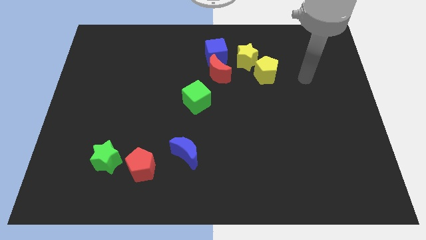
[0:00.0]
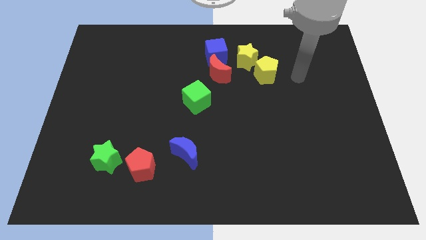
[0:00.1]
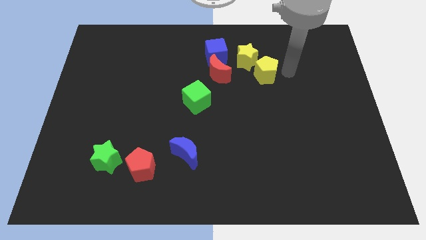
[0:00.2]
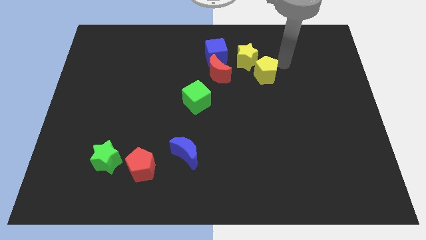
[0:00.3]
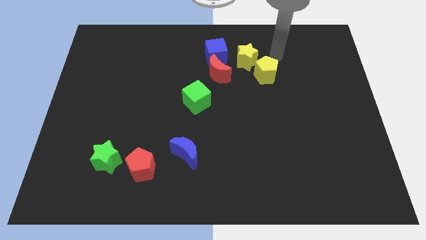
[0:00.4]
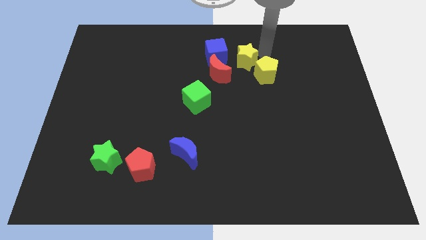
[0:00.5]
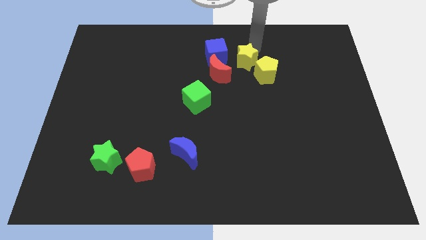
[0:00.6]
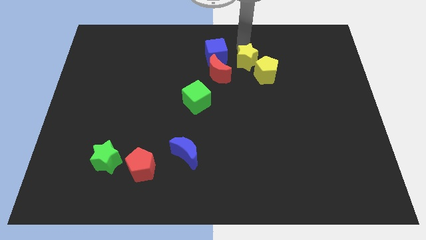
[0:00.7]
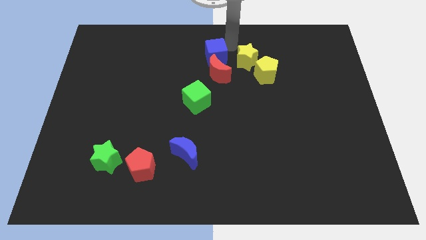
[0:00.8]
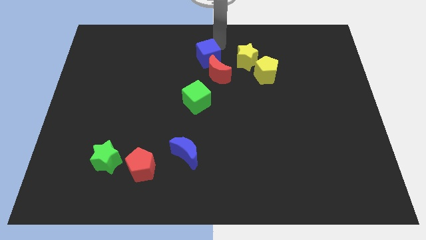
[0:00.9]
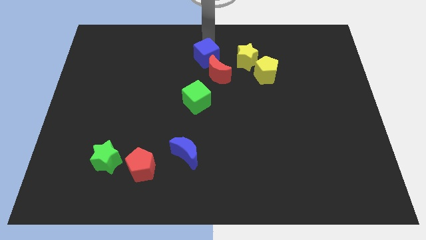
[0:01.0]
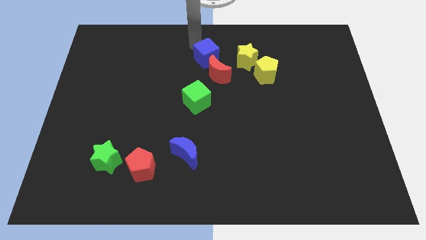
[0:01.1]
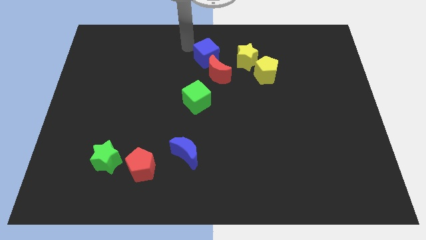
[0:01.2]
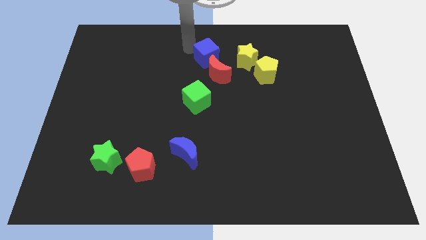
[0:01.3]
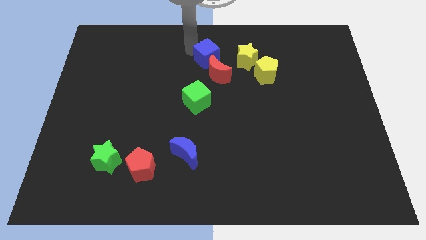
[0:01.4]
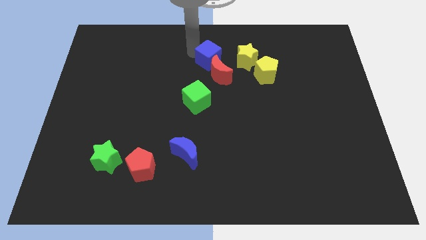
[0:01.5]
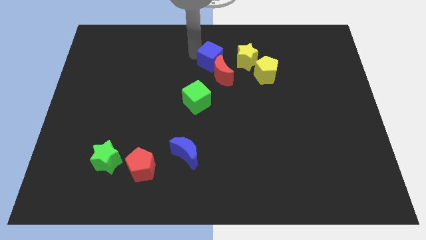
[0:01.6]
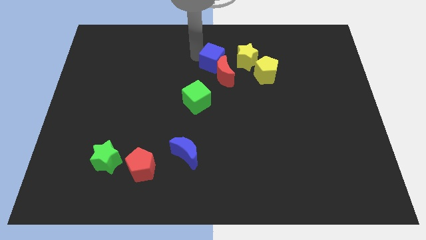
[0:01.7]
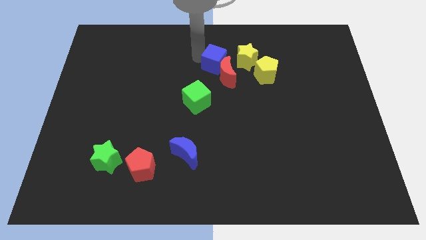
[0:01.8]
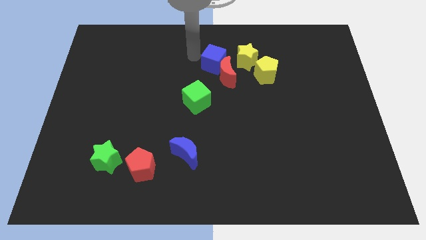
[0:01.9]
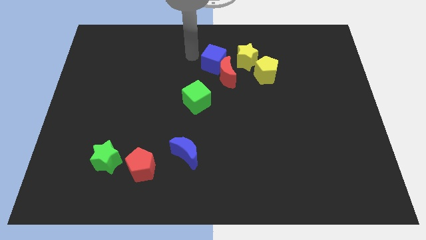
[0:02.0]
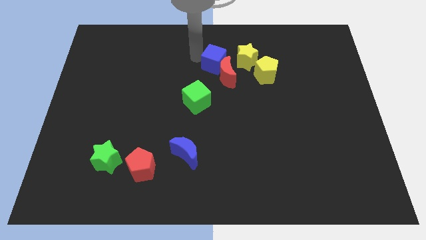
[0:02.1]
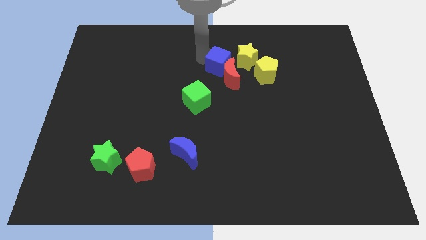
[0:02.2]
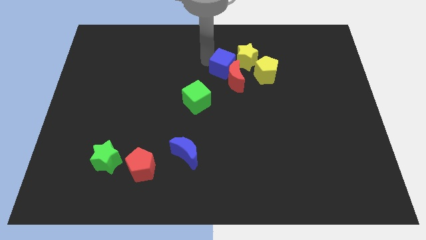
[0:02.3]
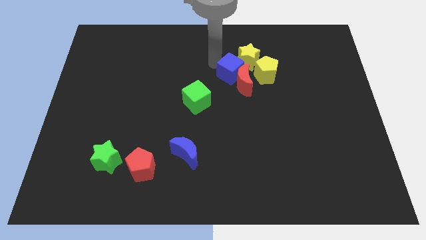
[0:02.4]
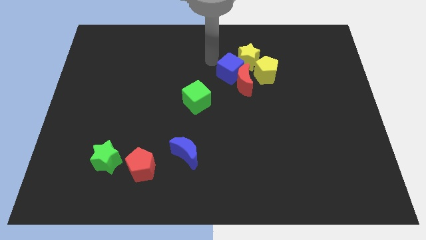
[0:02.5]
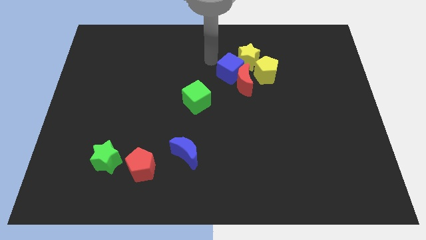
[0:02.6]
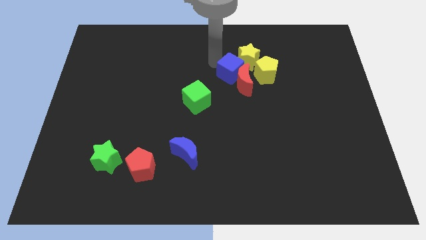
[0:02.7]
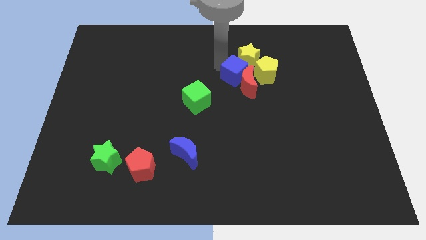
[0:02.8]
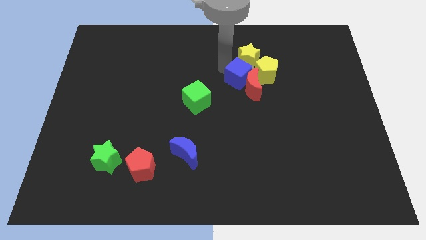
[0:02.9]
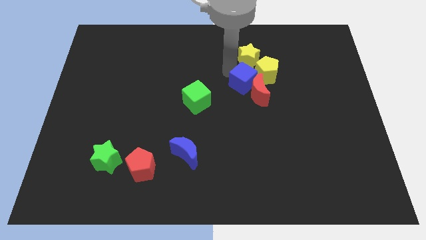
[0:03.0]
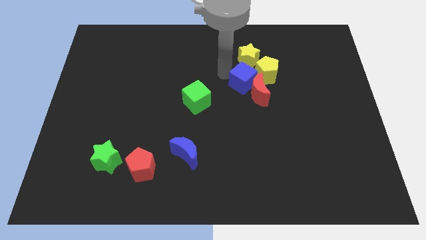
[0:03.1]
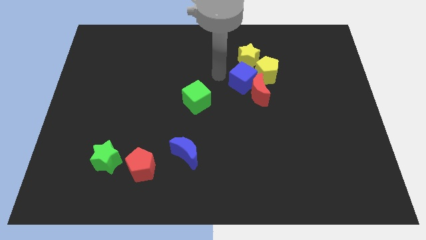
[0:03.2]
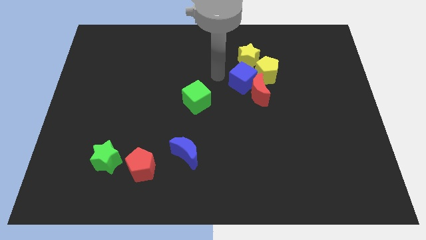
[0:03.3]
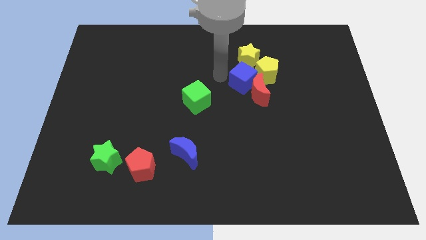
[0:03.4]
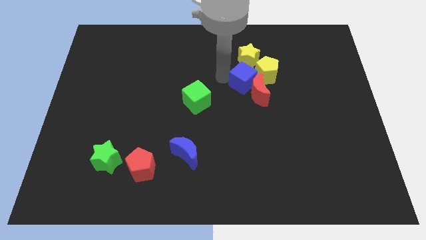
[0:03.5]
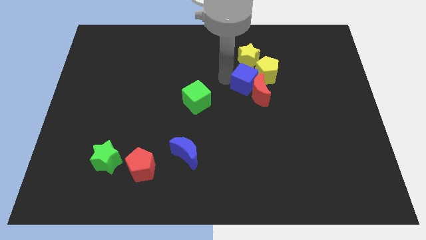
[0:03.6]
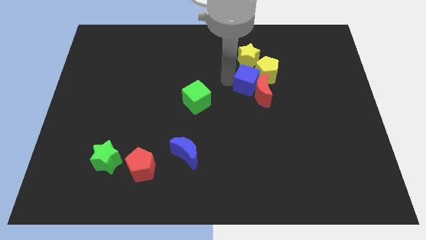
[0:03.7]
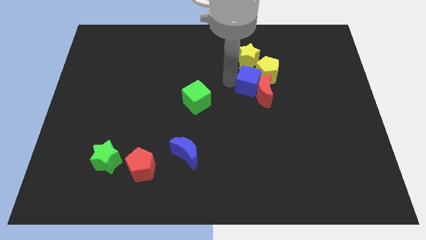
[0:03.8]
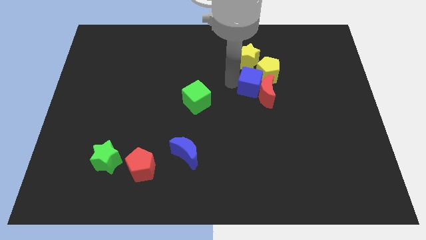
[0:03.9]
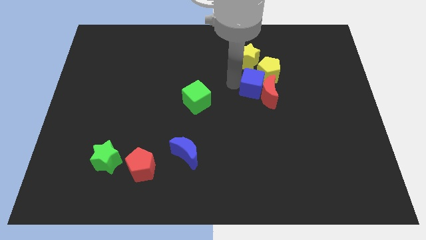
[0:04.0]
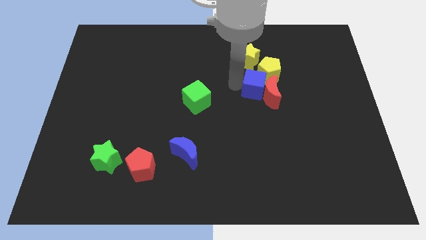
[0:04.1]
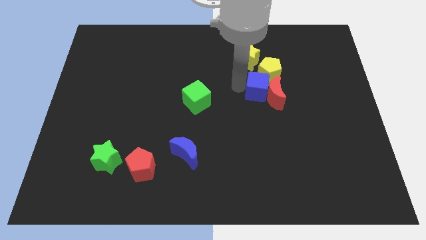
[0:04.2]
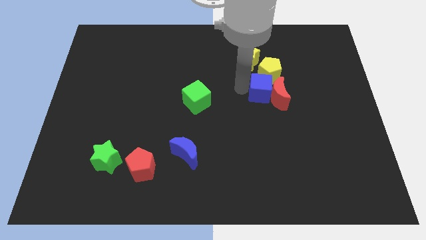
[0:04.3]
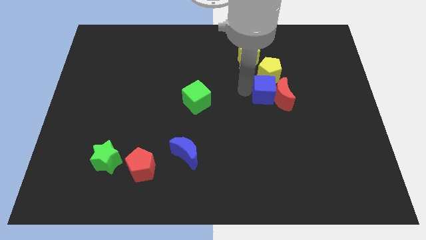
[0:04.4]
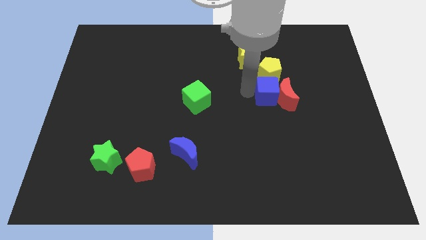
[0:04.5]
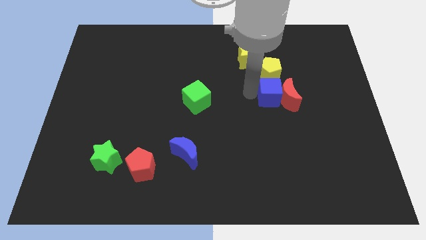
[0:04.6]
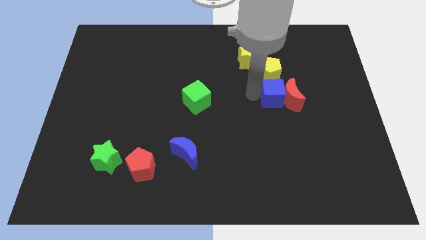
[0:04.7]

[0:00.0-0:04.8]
move the blue cube diagonally down and to the right of the yellow pentagon

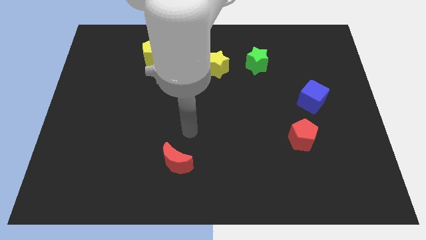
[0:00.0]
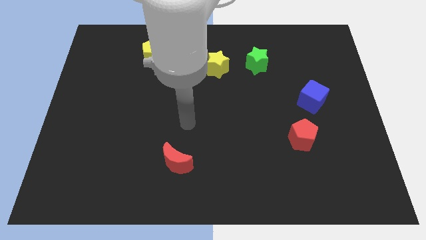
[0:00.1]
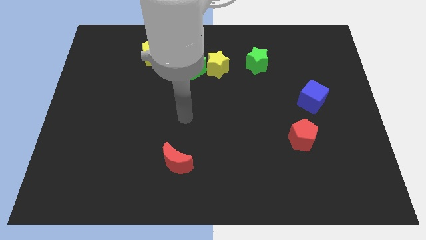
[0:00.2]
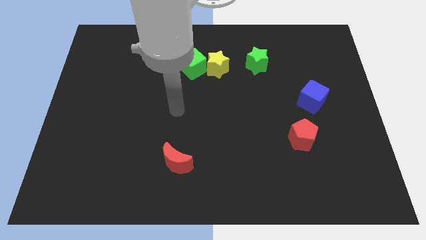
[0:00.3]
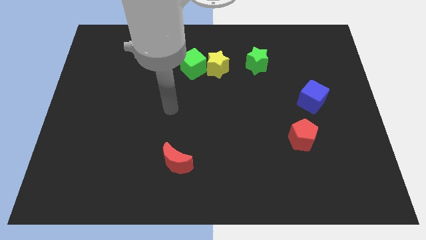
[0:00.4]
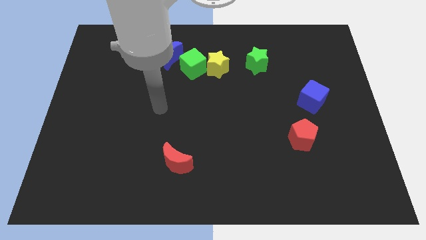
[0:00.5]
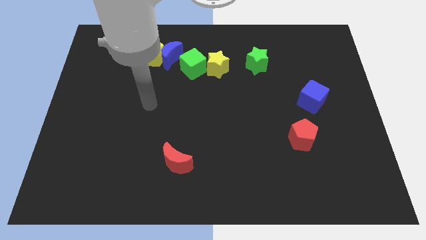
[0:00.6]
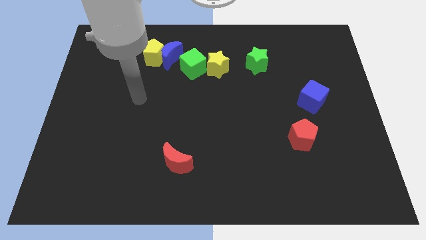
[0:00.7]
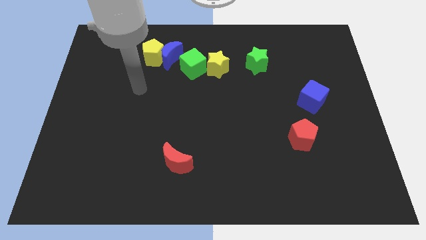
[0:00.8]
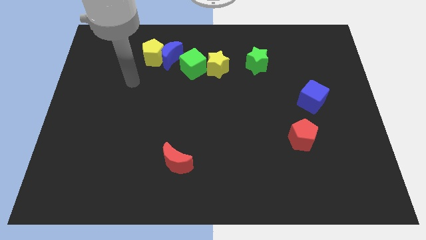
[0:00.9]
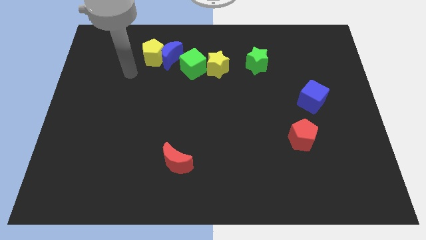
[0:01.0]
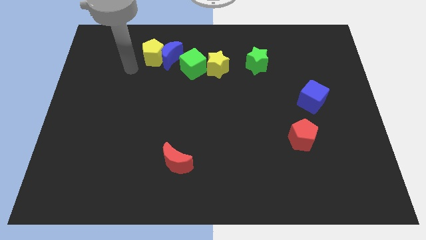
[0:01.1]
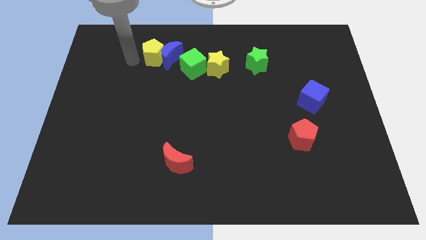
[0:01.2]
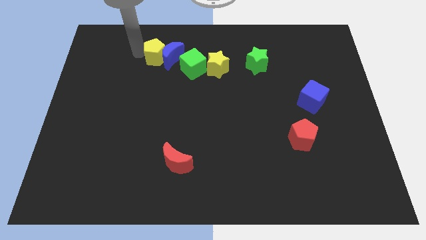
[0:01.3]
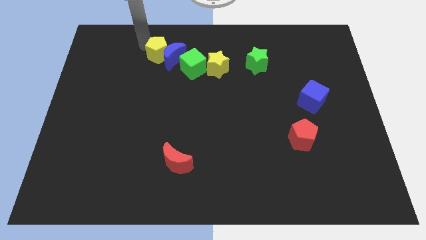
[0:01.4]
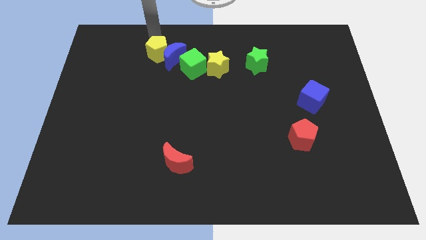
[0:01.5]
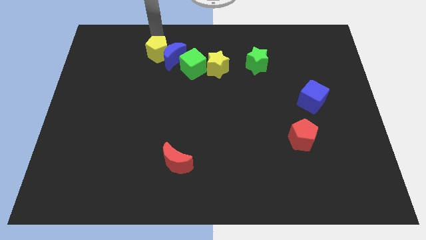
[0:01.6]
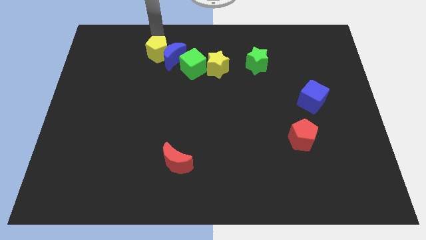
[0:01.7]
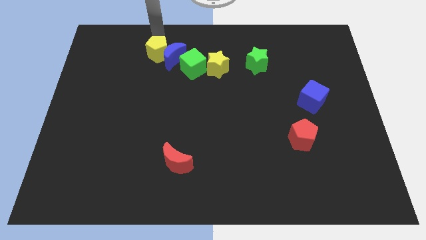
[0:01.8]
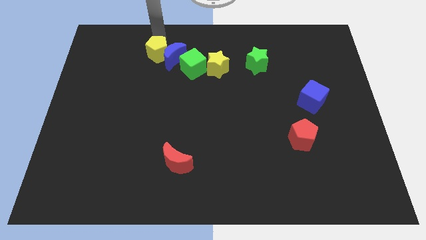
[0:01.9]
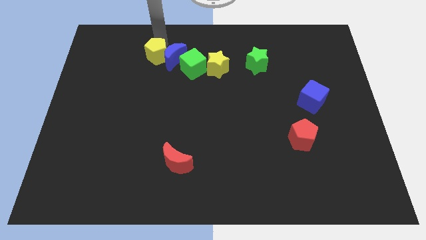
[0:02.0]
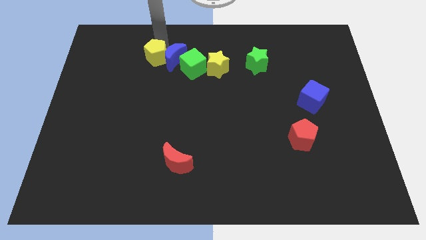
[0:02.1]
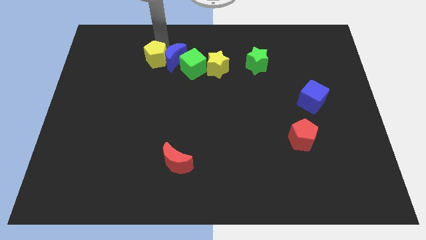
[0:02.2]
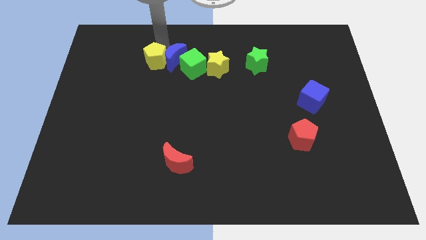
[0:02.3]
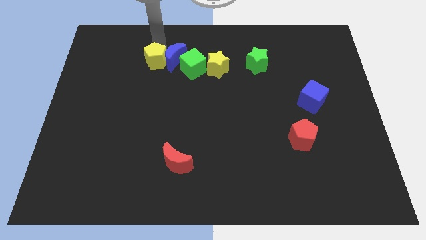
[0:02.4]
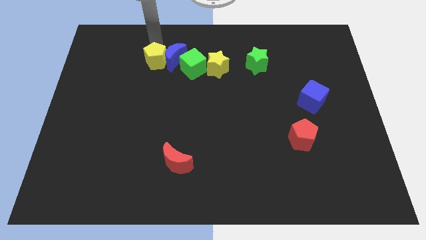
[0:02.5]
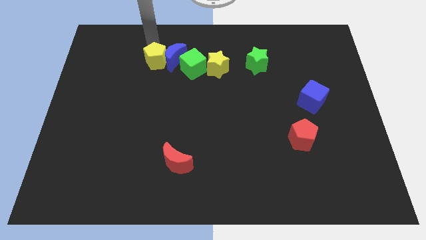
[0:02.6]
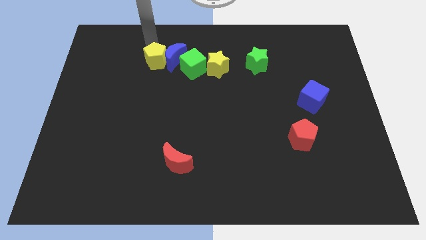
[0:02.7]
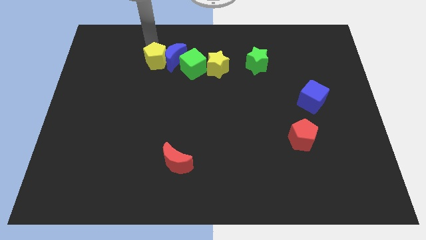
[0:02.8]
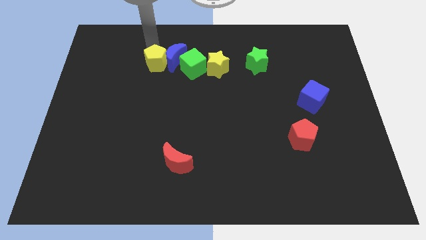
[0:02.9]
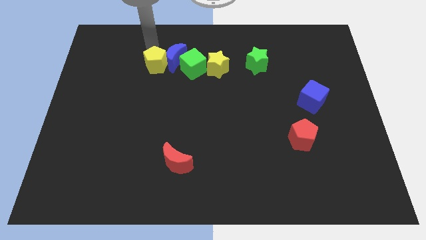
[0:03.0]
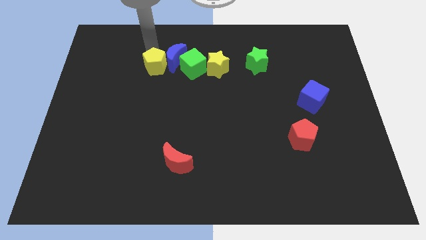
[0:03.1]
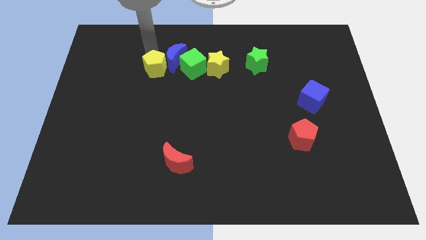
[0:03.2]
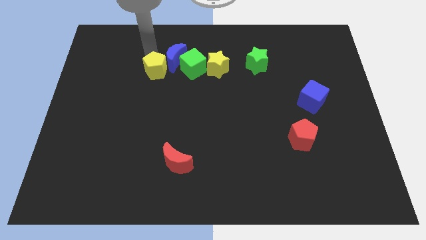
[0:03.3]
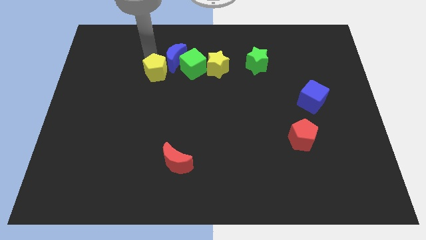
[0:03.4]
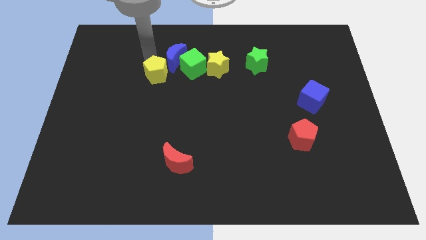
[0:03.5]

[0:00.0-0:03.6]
move the yellow pentagon diagonally down and to the left of the green cube
